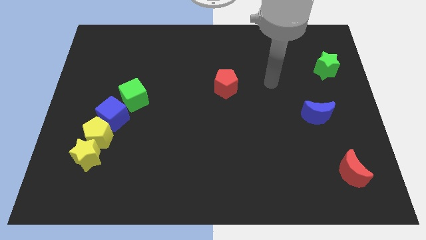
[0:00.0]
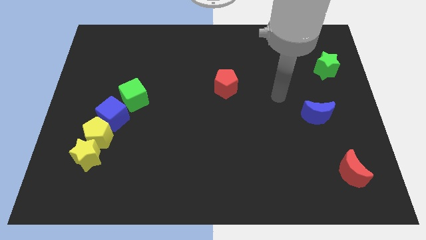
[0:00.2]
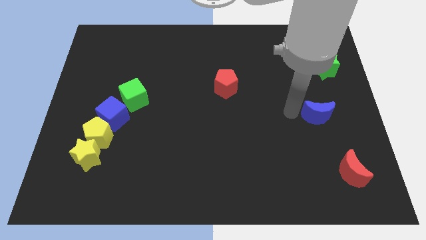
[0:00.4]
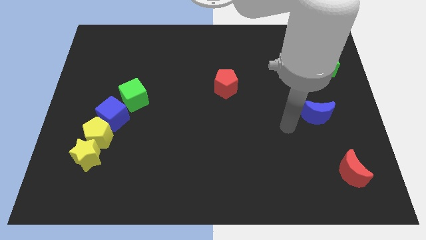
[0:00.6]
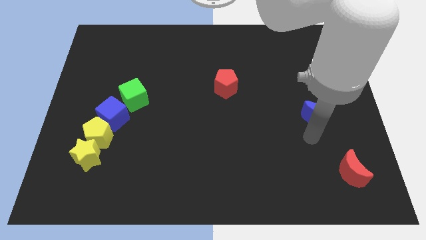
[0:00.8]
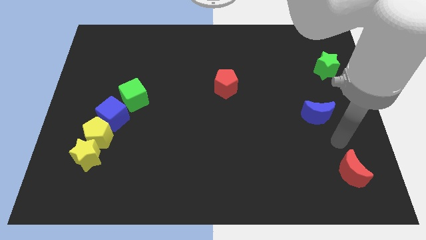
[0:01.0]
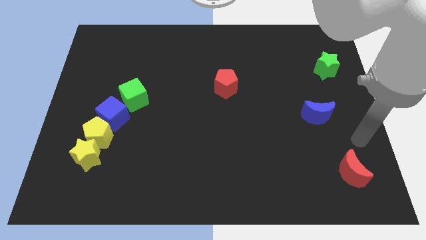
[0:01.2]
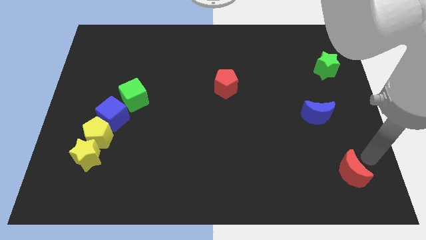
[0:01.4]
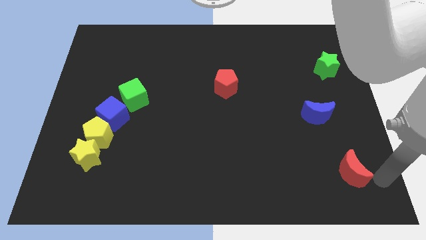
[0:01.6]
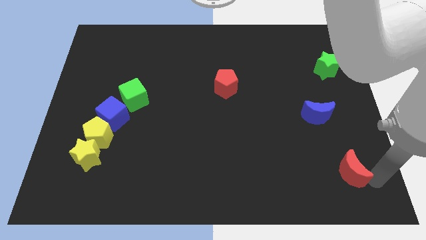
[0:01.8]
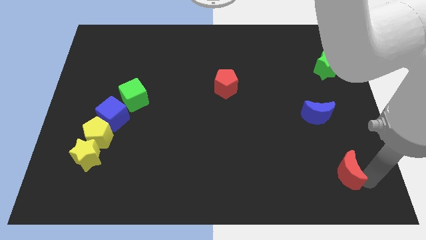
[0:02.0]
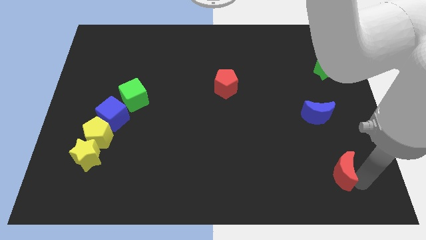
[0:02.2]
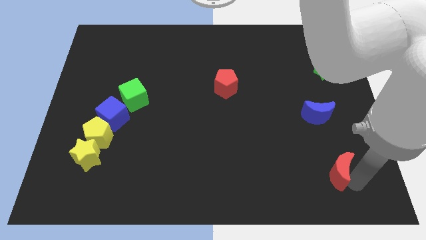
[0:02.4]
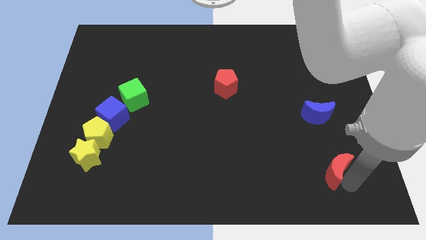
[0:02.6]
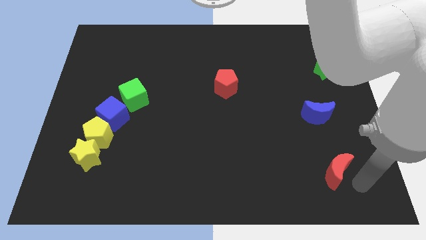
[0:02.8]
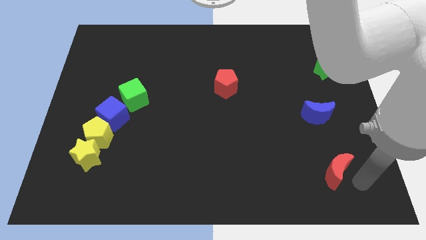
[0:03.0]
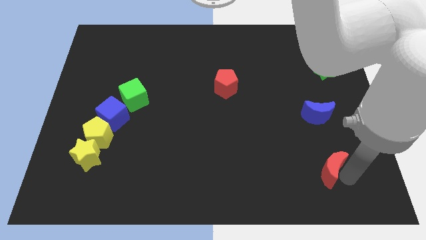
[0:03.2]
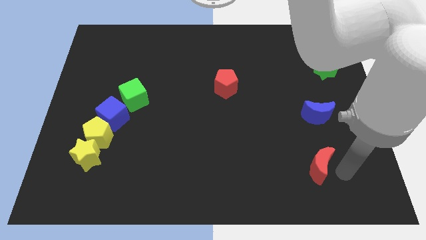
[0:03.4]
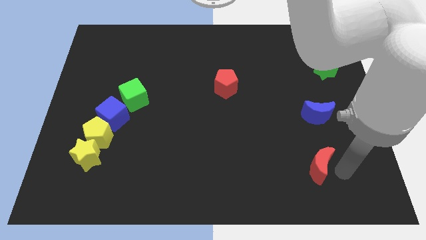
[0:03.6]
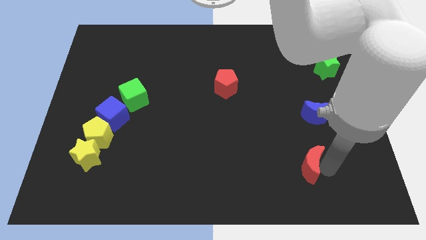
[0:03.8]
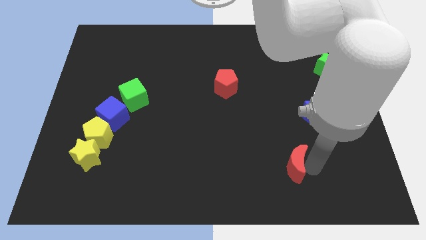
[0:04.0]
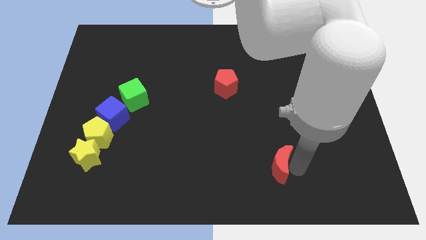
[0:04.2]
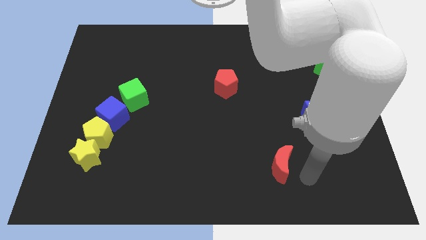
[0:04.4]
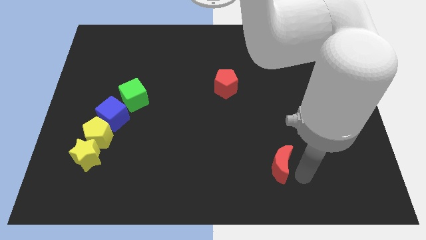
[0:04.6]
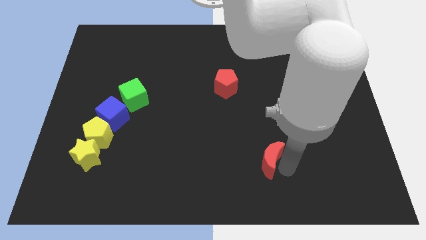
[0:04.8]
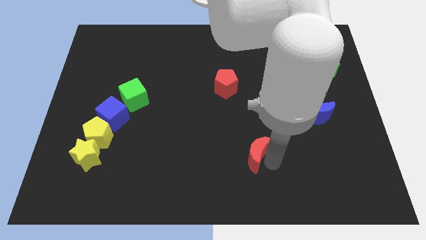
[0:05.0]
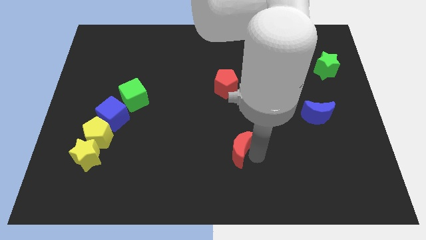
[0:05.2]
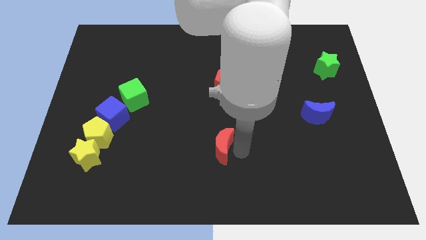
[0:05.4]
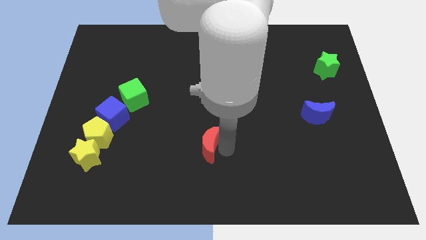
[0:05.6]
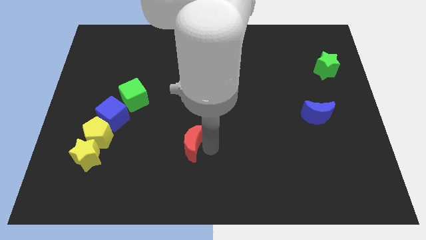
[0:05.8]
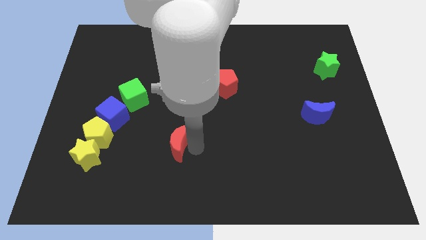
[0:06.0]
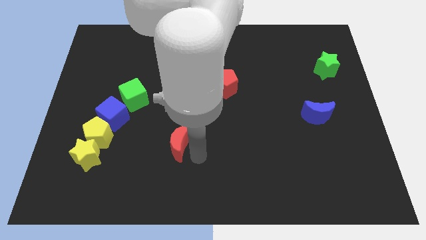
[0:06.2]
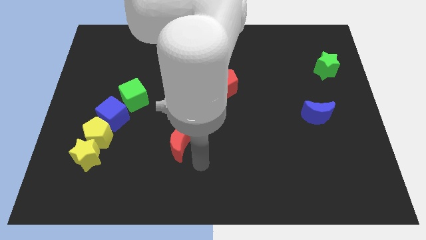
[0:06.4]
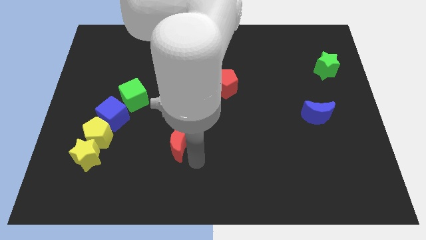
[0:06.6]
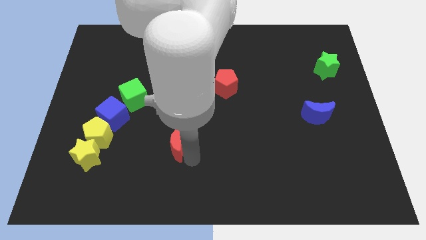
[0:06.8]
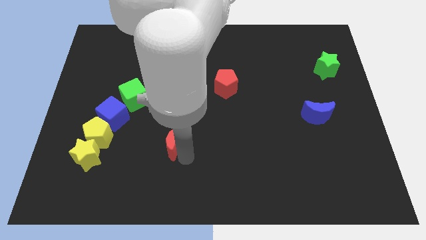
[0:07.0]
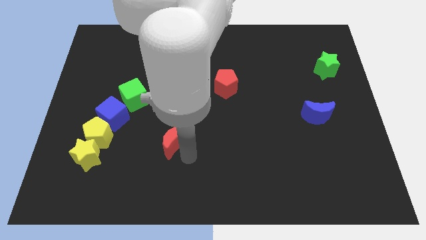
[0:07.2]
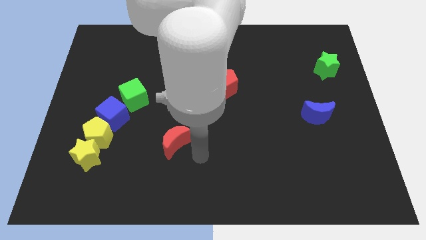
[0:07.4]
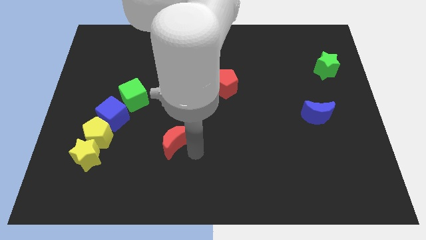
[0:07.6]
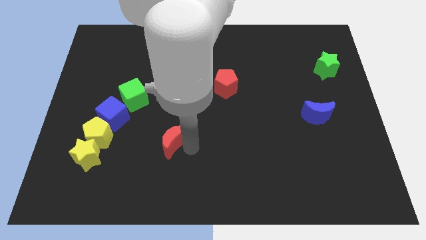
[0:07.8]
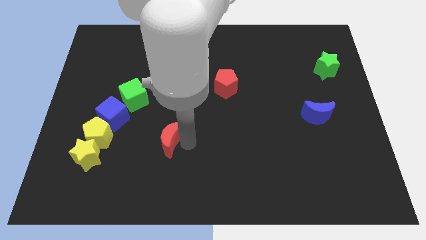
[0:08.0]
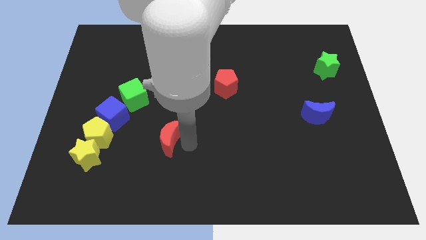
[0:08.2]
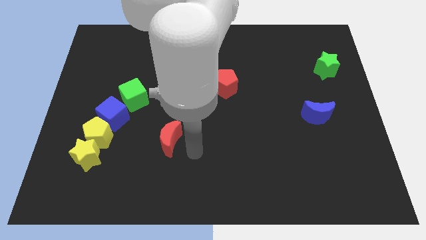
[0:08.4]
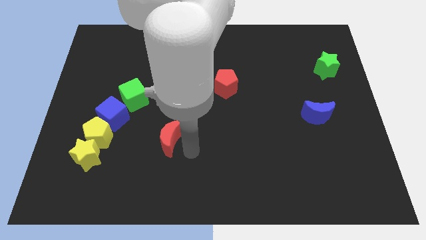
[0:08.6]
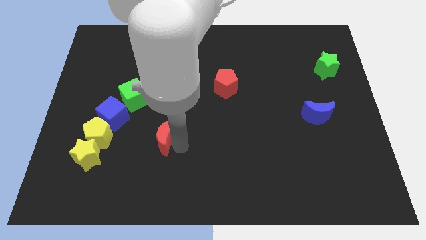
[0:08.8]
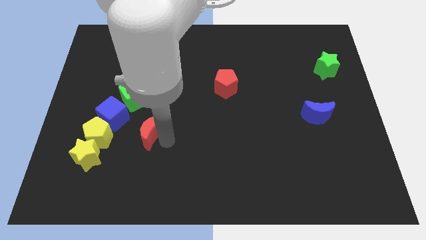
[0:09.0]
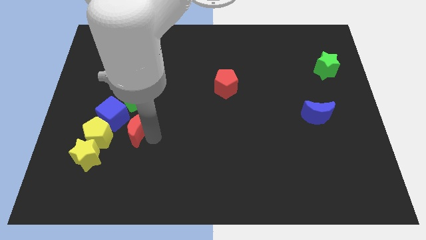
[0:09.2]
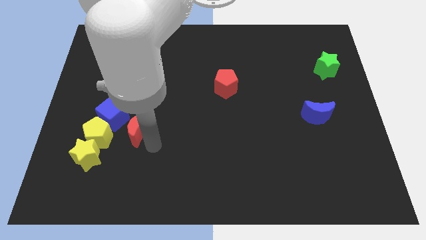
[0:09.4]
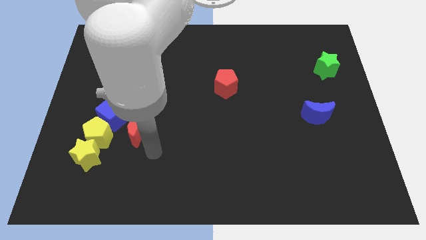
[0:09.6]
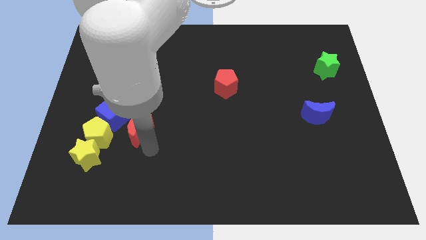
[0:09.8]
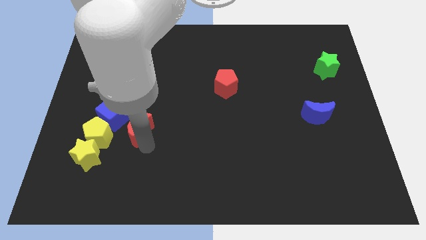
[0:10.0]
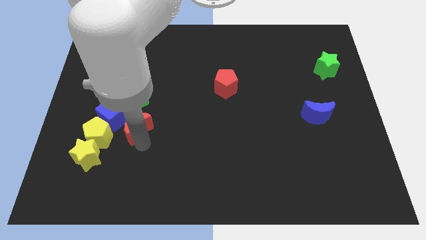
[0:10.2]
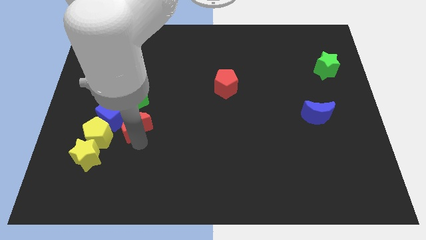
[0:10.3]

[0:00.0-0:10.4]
put the red moon next to the blue cube

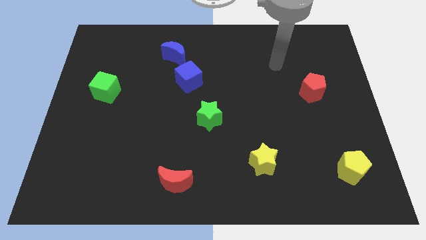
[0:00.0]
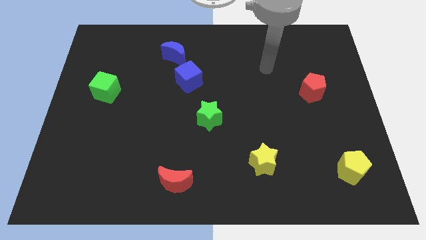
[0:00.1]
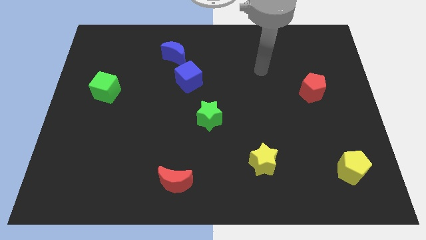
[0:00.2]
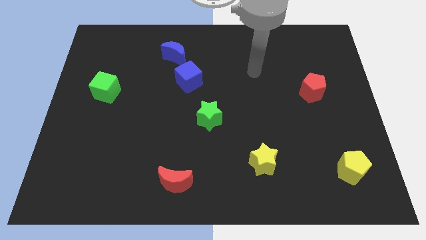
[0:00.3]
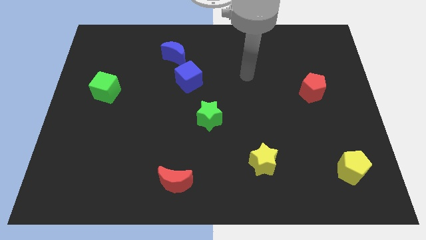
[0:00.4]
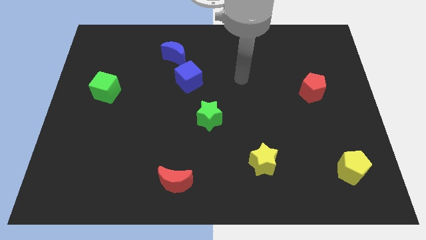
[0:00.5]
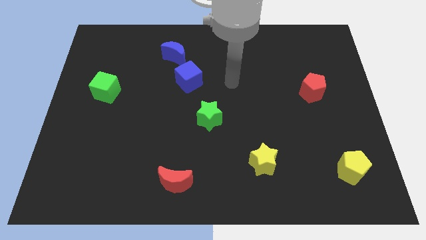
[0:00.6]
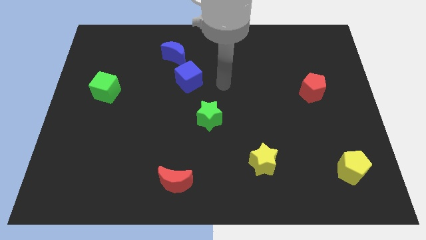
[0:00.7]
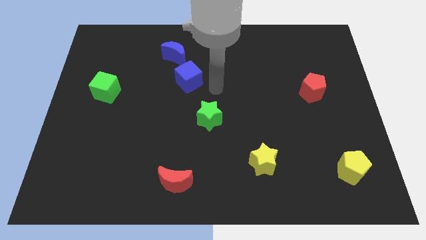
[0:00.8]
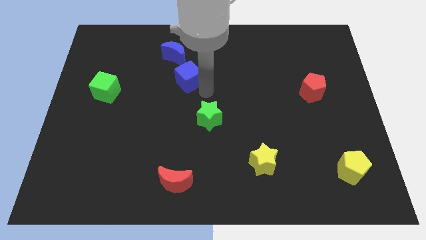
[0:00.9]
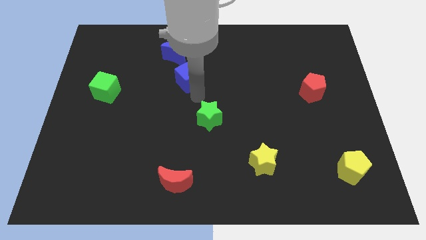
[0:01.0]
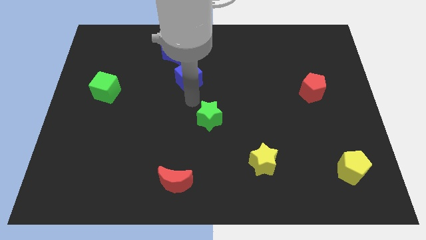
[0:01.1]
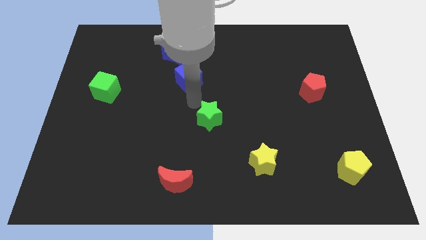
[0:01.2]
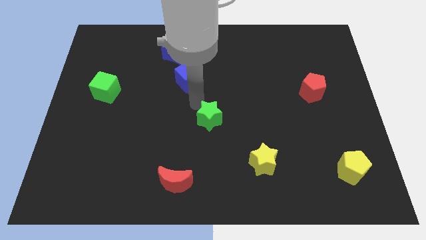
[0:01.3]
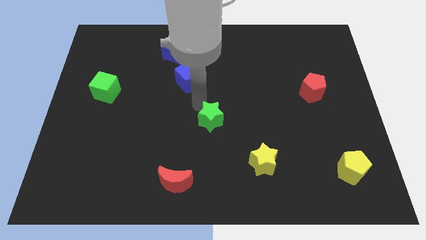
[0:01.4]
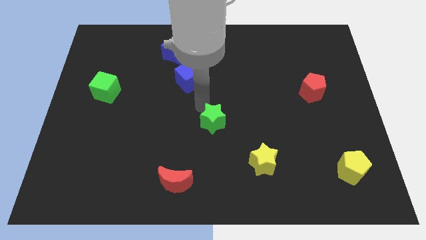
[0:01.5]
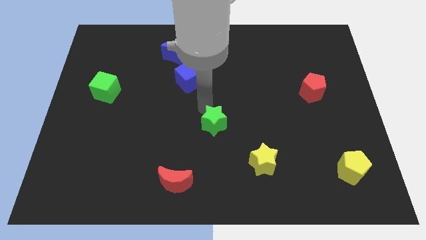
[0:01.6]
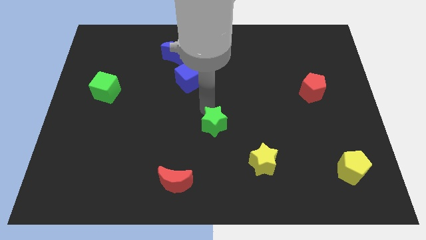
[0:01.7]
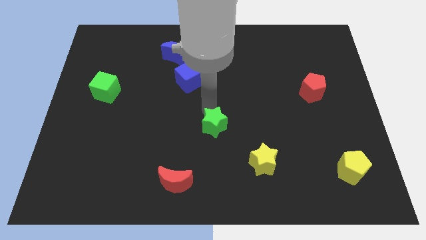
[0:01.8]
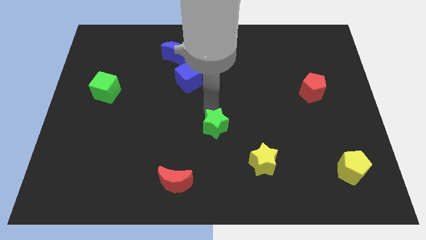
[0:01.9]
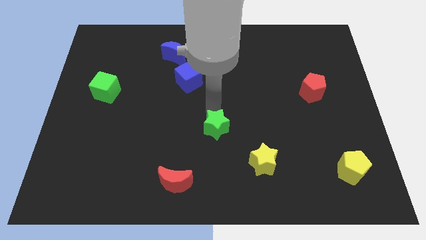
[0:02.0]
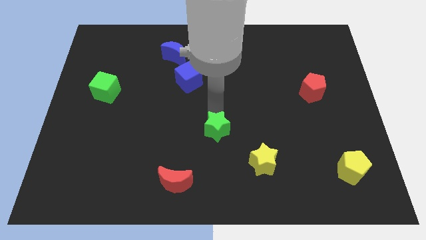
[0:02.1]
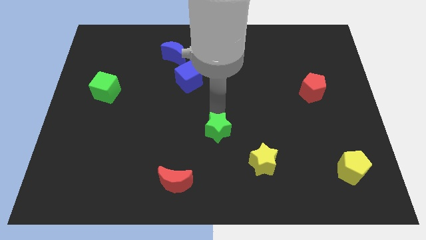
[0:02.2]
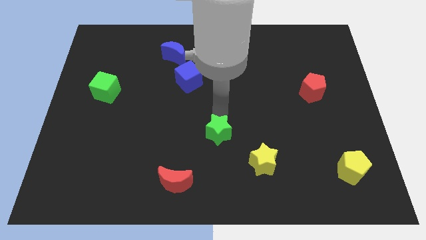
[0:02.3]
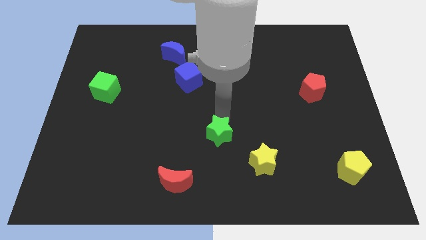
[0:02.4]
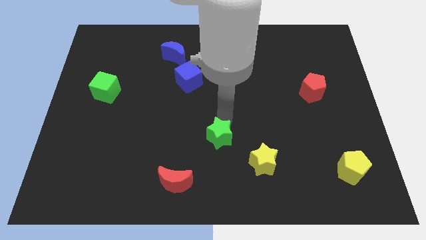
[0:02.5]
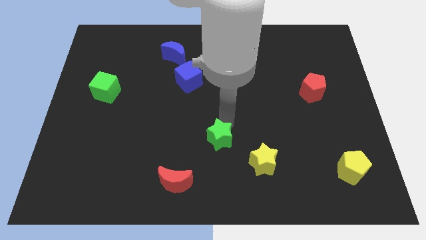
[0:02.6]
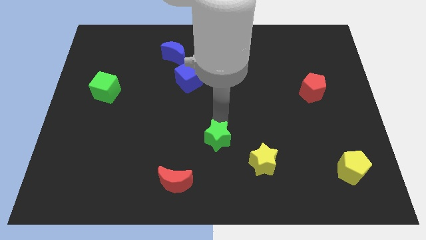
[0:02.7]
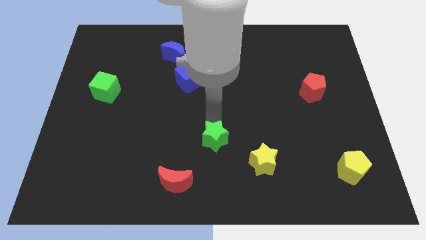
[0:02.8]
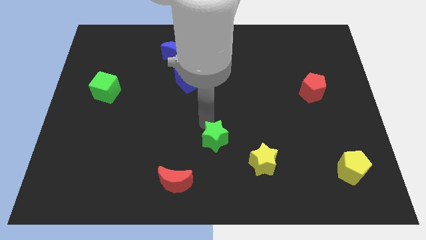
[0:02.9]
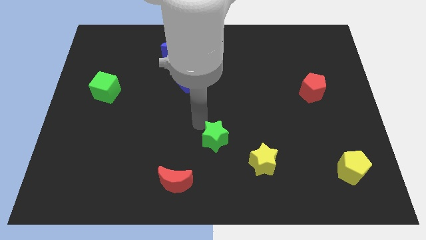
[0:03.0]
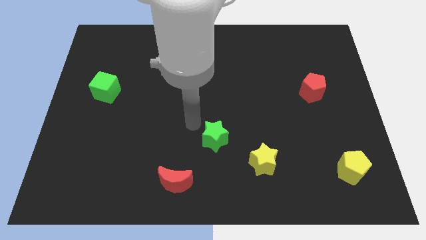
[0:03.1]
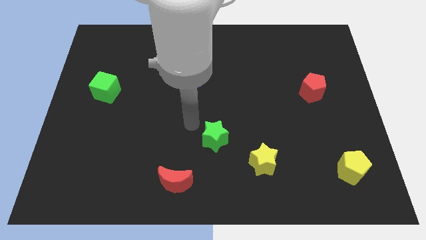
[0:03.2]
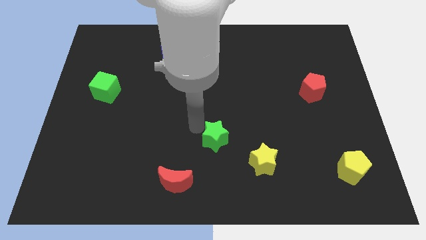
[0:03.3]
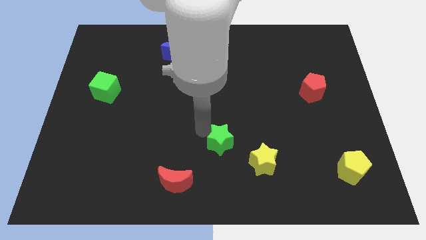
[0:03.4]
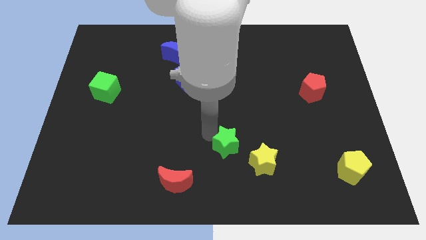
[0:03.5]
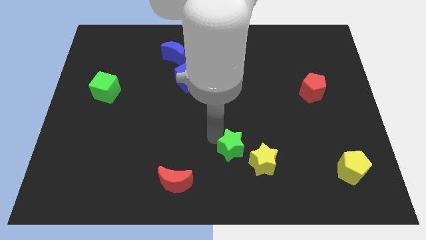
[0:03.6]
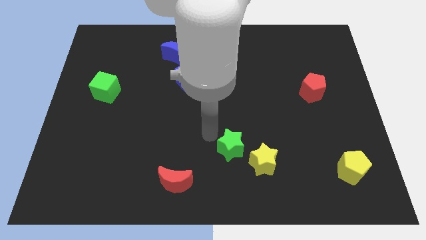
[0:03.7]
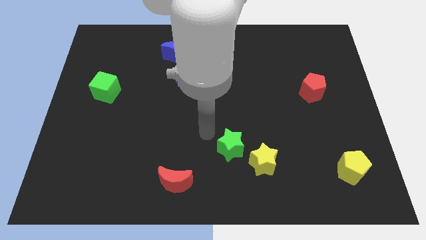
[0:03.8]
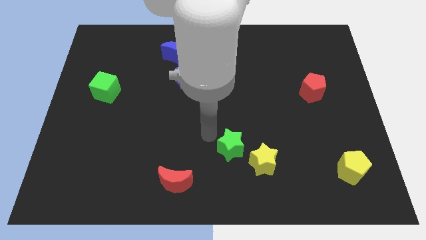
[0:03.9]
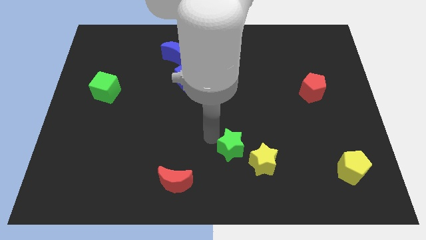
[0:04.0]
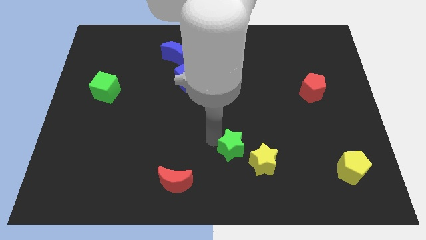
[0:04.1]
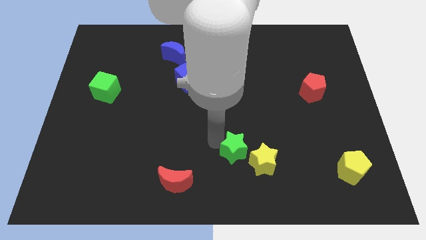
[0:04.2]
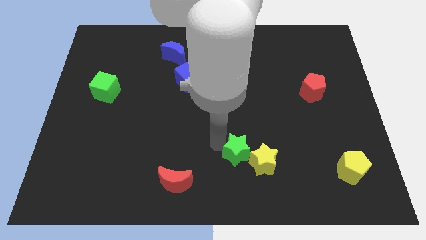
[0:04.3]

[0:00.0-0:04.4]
slide the green star to the yellow star
